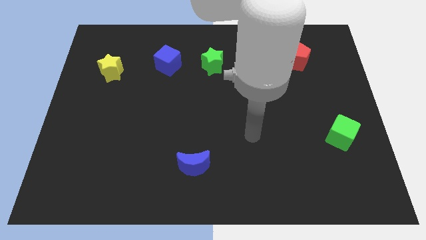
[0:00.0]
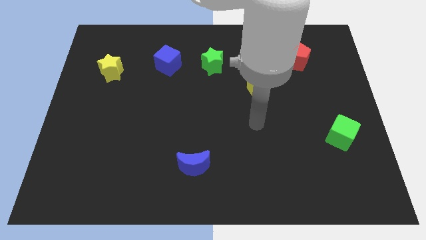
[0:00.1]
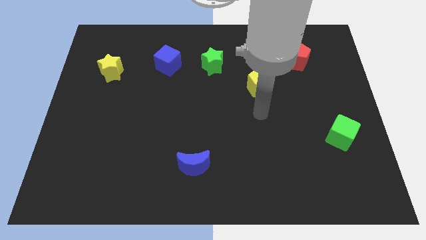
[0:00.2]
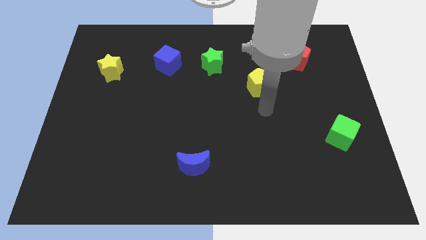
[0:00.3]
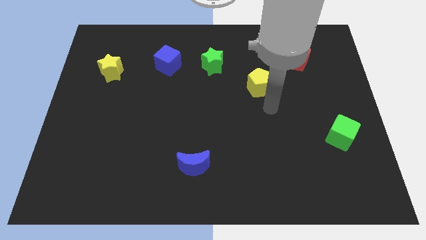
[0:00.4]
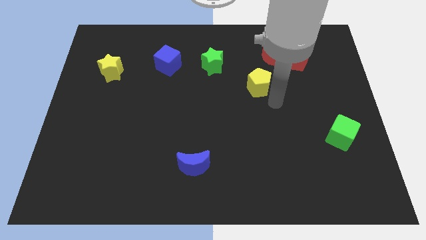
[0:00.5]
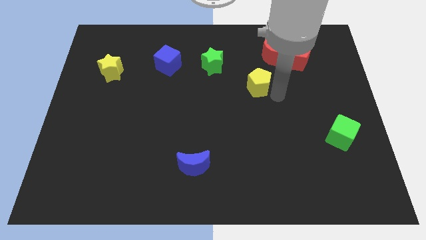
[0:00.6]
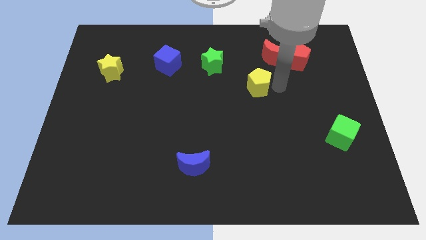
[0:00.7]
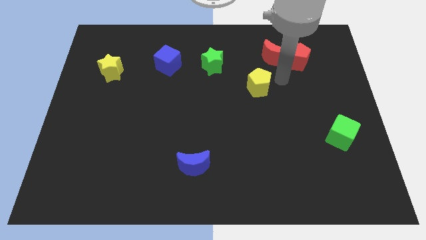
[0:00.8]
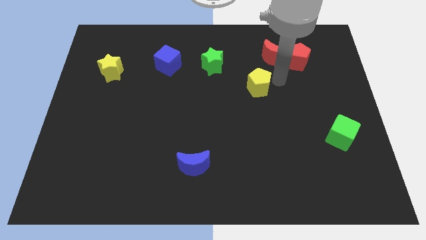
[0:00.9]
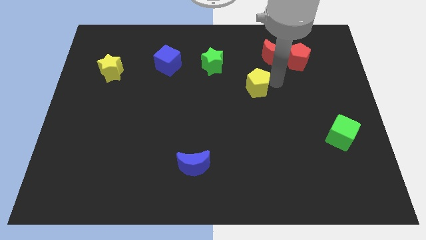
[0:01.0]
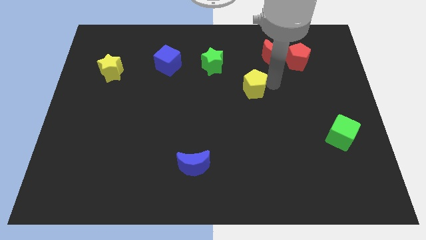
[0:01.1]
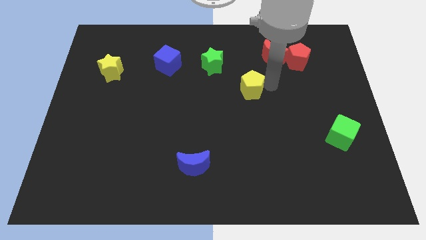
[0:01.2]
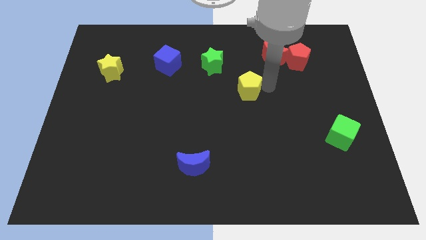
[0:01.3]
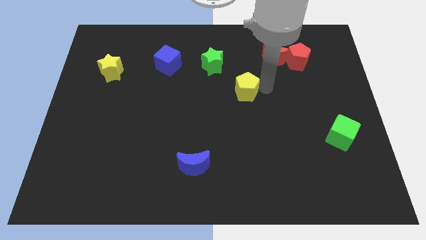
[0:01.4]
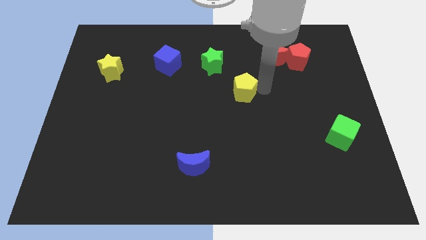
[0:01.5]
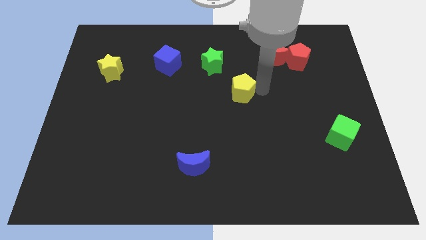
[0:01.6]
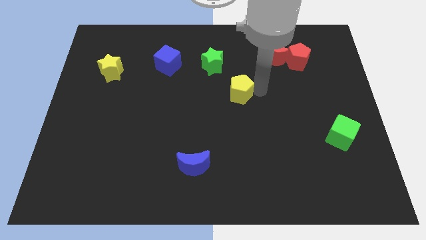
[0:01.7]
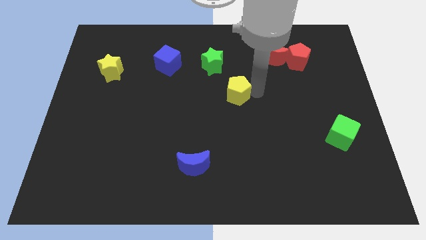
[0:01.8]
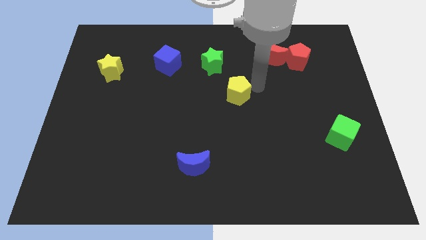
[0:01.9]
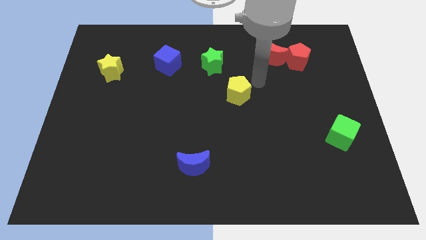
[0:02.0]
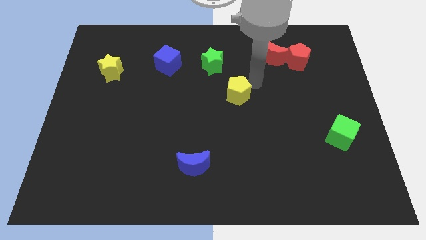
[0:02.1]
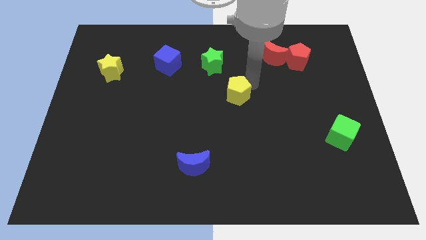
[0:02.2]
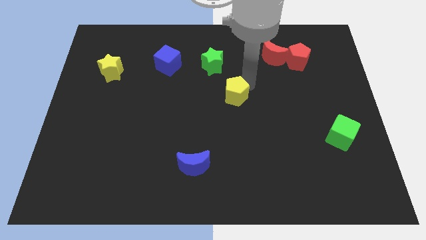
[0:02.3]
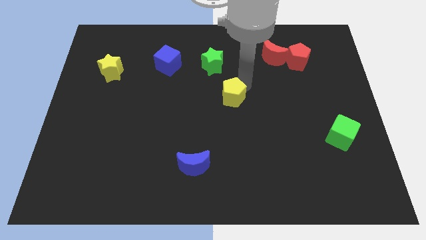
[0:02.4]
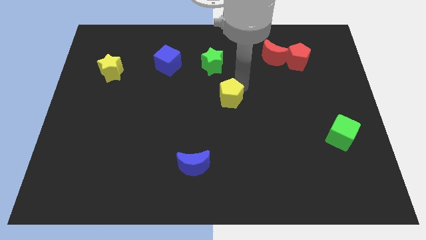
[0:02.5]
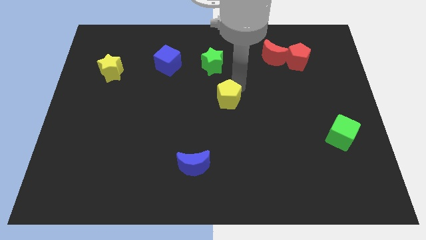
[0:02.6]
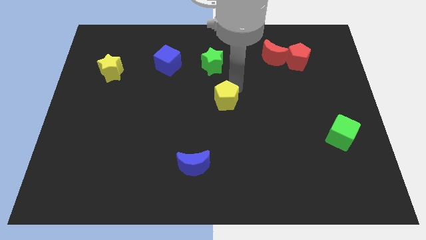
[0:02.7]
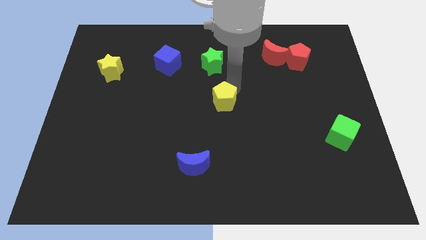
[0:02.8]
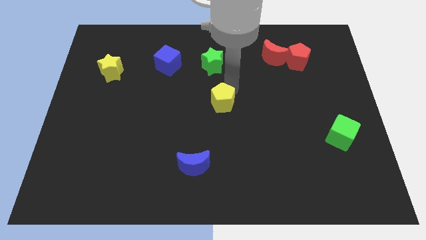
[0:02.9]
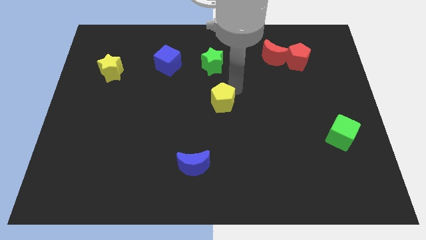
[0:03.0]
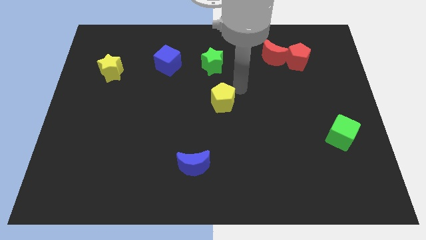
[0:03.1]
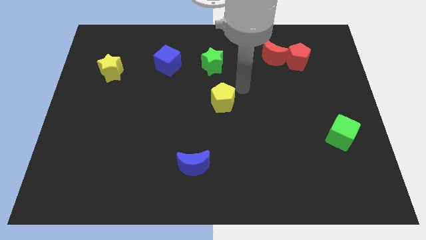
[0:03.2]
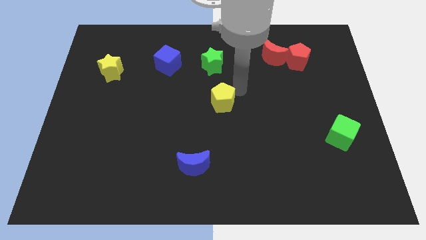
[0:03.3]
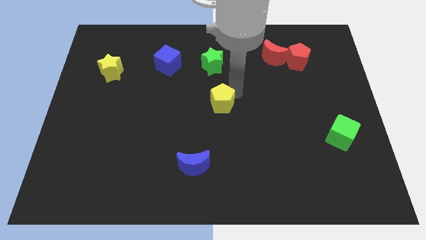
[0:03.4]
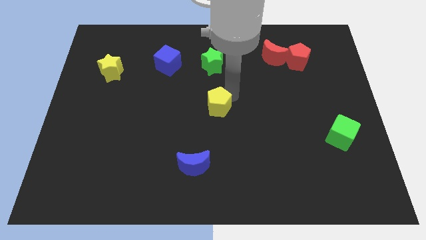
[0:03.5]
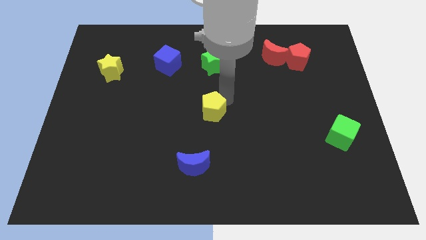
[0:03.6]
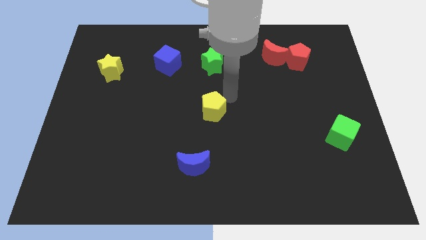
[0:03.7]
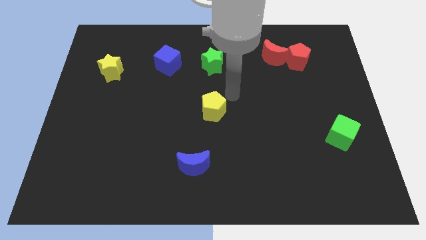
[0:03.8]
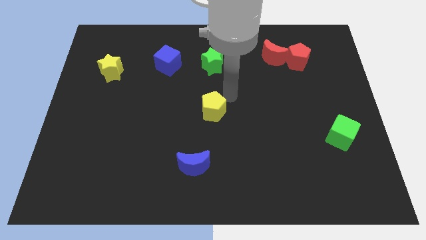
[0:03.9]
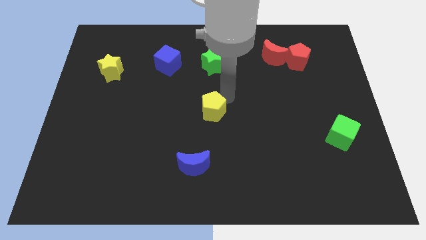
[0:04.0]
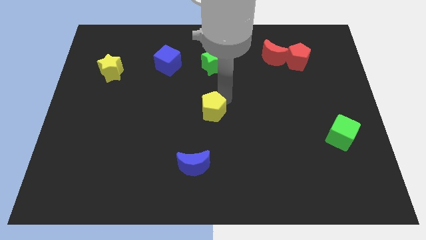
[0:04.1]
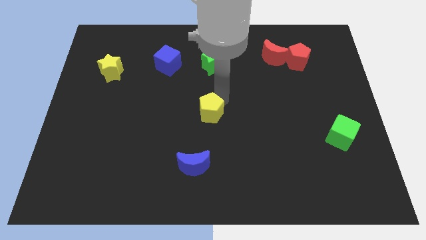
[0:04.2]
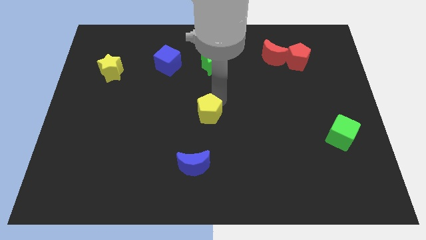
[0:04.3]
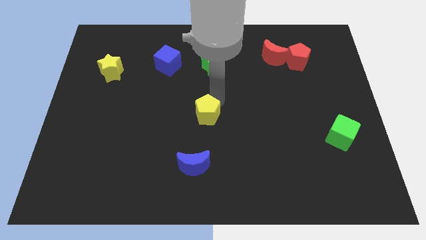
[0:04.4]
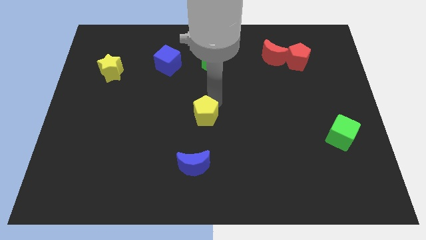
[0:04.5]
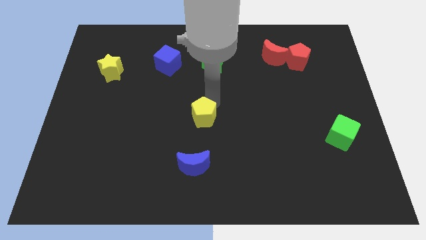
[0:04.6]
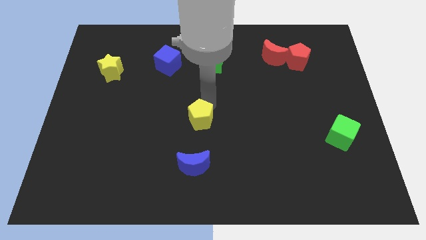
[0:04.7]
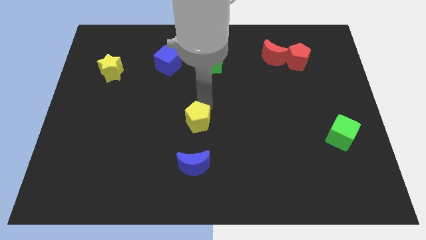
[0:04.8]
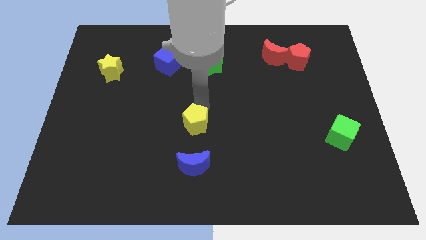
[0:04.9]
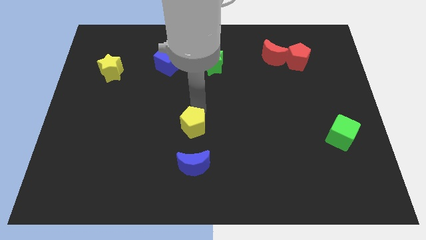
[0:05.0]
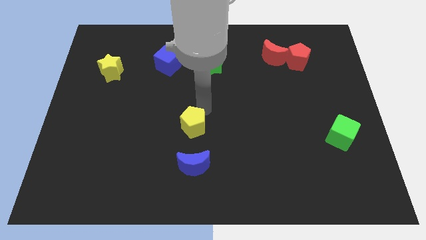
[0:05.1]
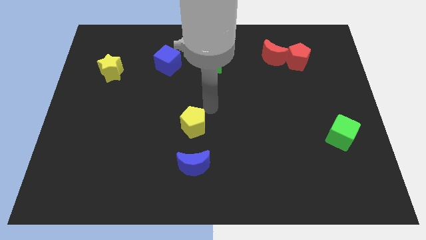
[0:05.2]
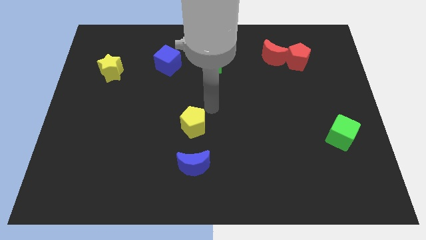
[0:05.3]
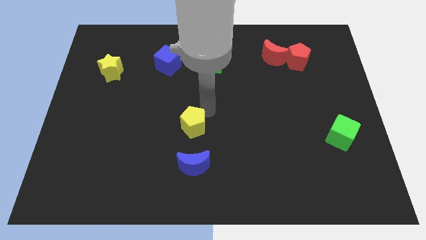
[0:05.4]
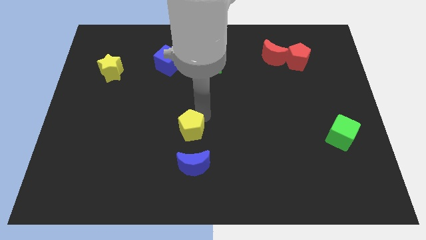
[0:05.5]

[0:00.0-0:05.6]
push the yellow pentagon downwards and left

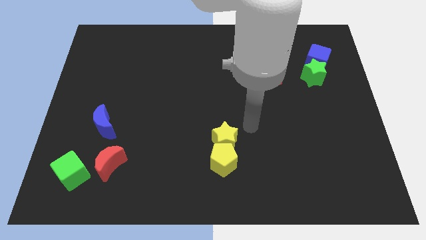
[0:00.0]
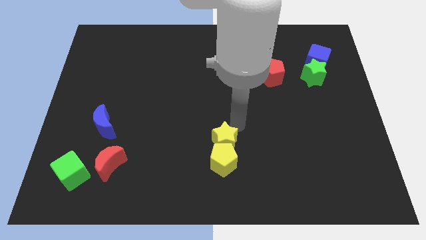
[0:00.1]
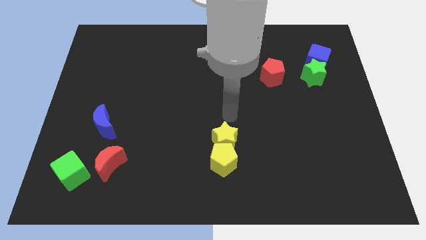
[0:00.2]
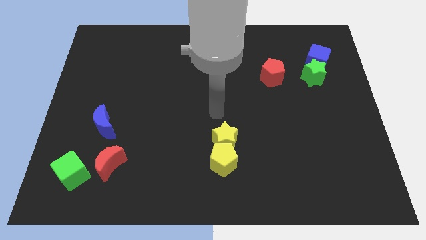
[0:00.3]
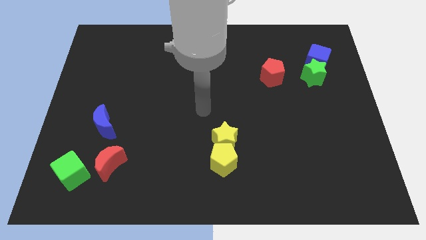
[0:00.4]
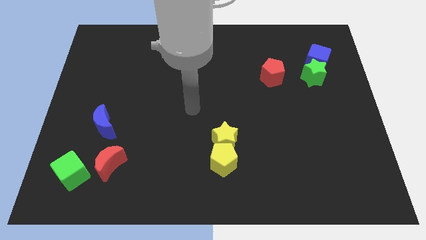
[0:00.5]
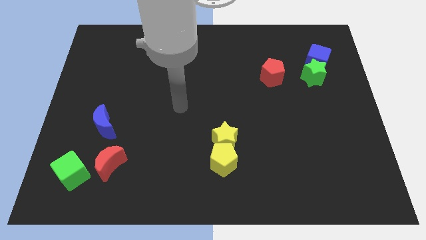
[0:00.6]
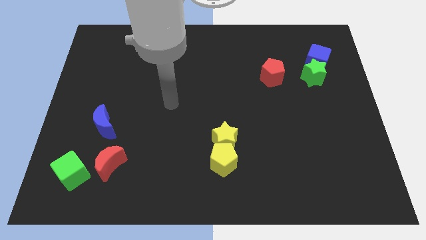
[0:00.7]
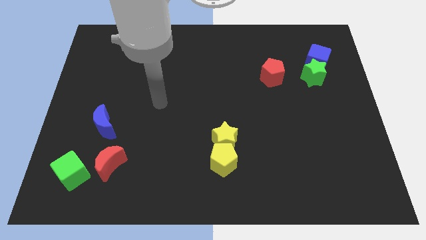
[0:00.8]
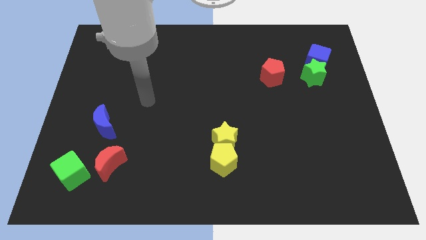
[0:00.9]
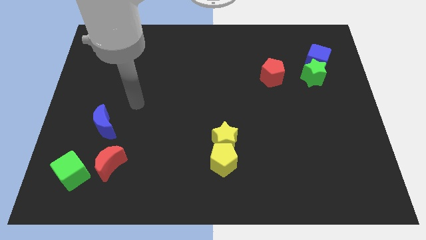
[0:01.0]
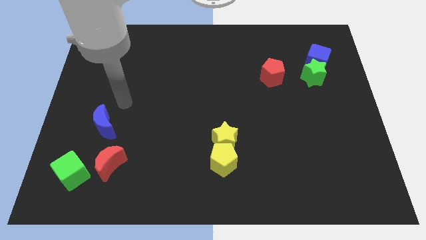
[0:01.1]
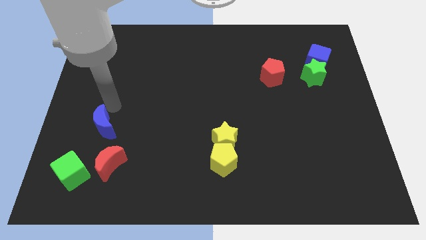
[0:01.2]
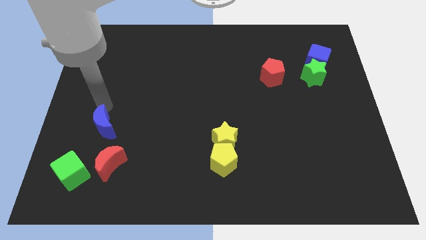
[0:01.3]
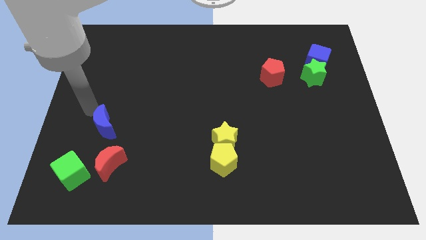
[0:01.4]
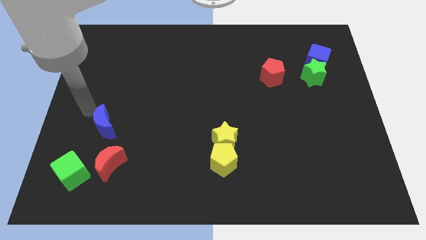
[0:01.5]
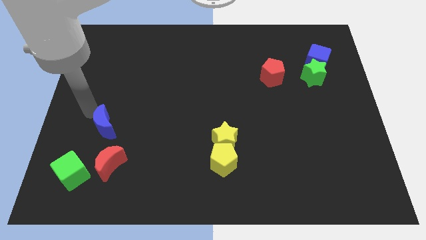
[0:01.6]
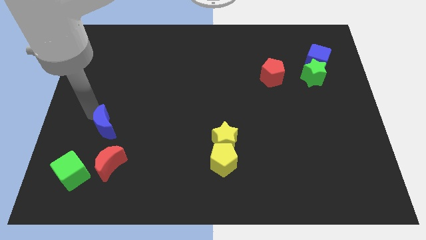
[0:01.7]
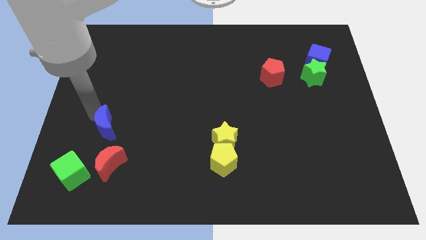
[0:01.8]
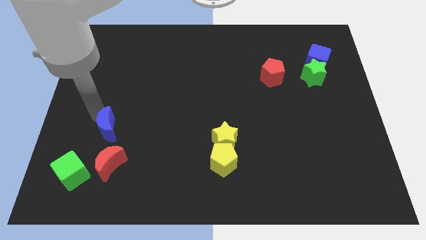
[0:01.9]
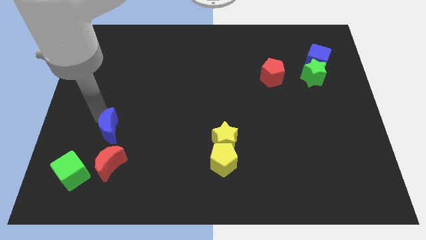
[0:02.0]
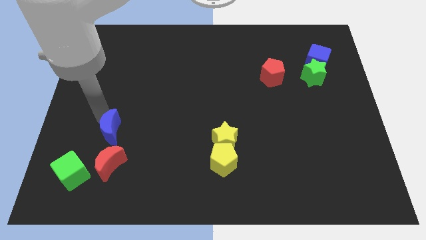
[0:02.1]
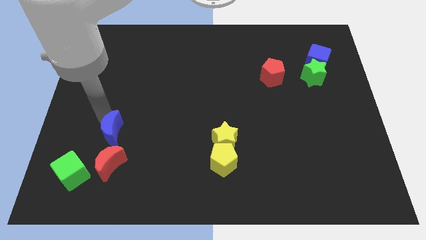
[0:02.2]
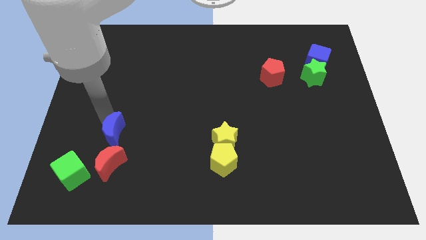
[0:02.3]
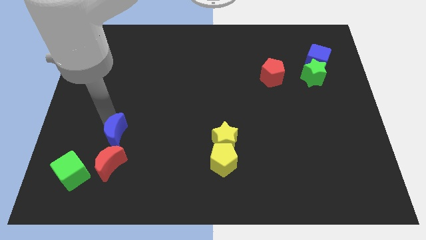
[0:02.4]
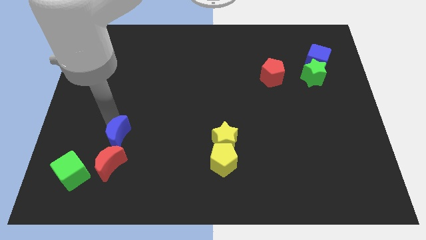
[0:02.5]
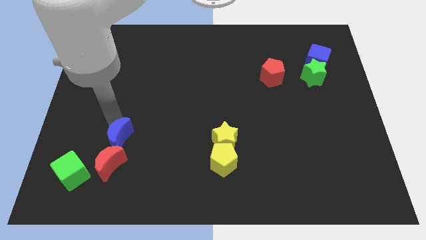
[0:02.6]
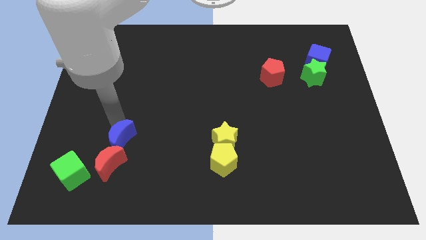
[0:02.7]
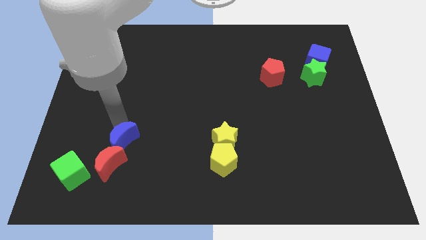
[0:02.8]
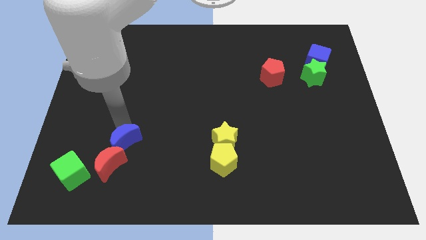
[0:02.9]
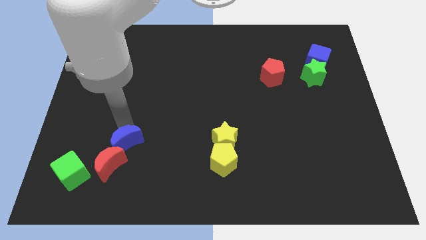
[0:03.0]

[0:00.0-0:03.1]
slide the blue moon a bit diagonally down and to the right
